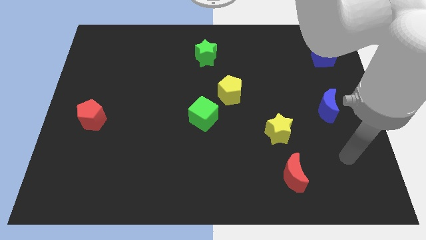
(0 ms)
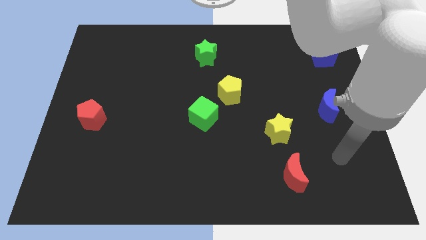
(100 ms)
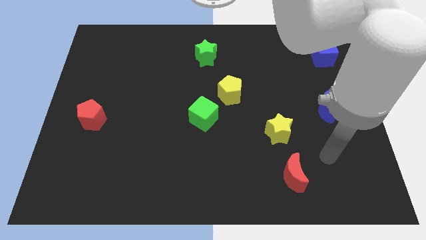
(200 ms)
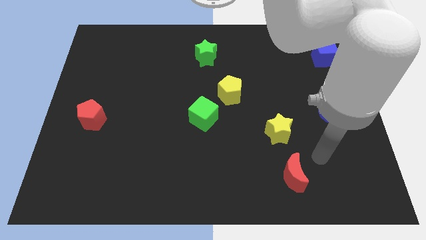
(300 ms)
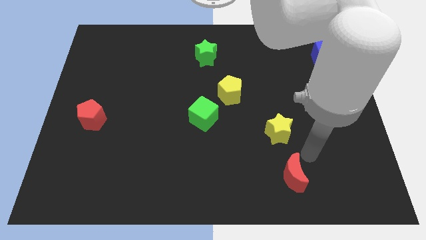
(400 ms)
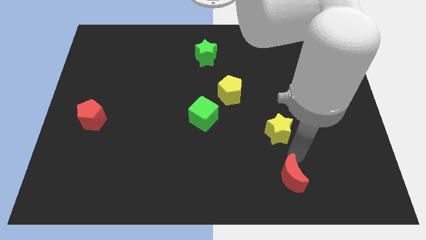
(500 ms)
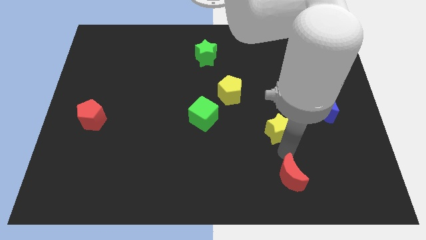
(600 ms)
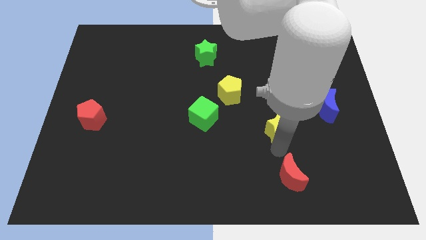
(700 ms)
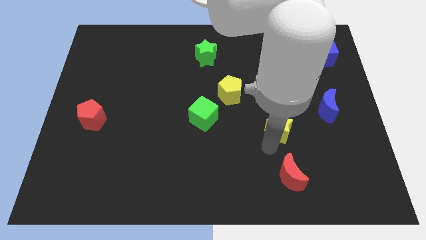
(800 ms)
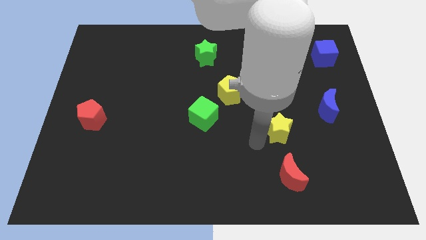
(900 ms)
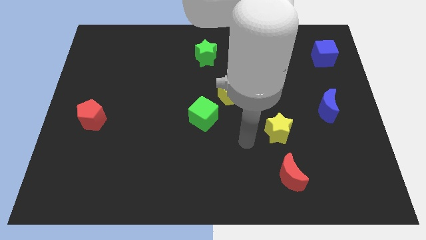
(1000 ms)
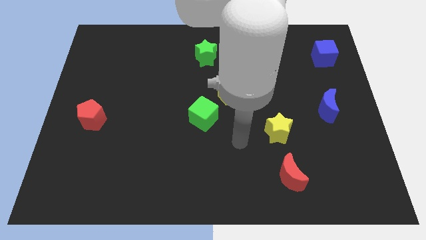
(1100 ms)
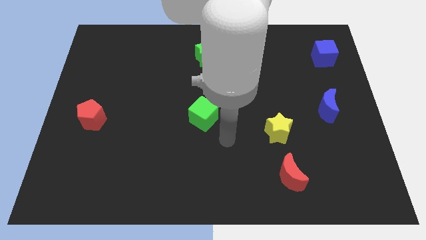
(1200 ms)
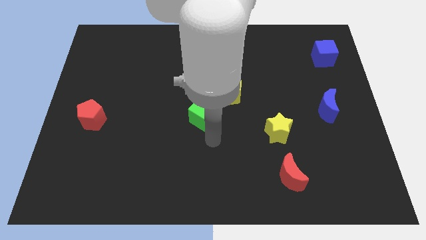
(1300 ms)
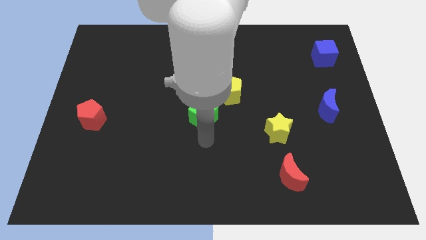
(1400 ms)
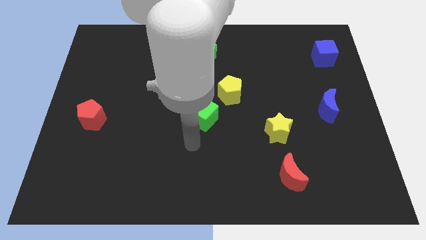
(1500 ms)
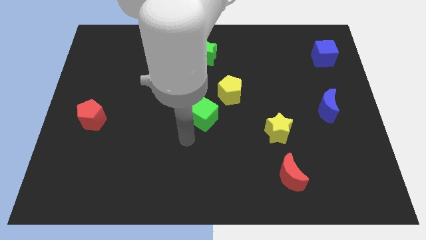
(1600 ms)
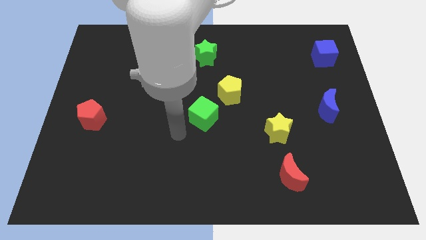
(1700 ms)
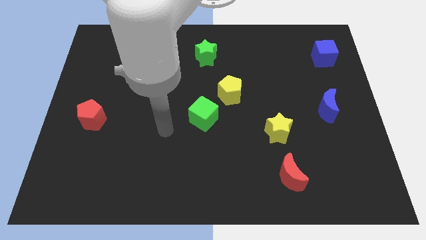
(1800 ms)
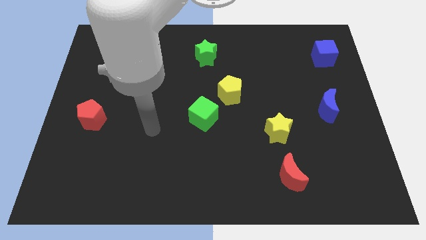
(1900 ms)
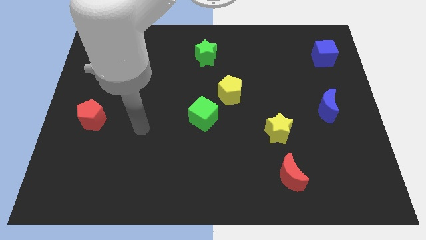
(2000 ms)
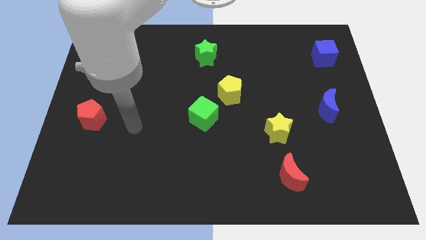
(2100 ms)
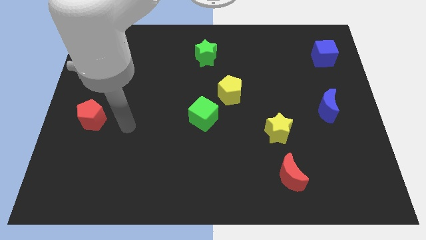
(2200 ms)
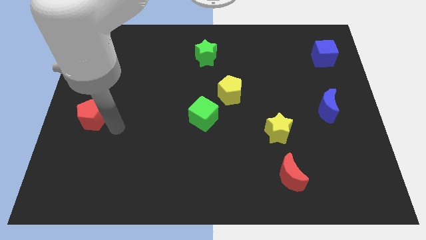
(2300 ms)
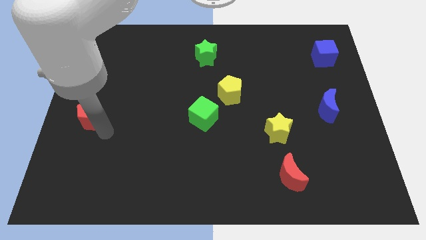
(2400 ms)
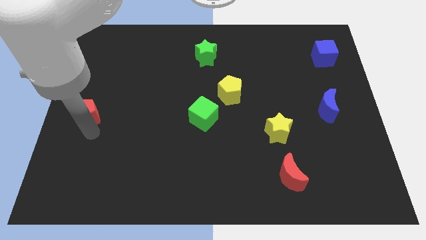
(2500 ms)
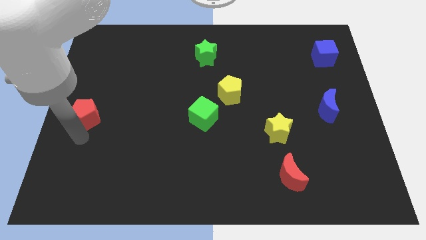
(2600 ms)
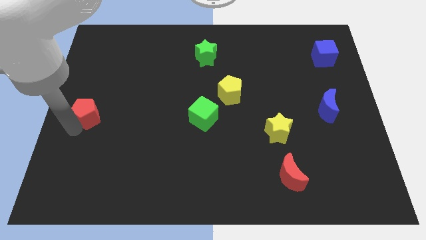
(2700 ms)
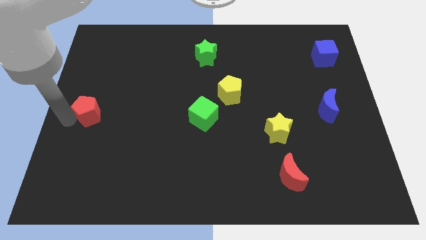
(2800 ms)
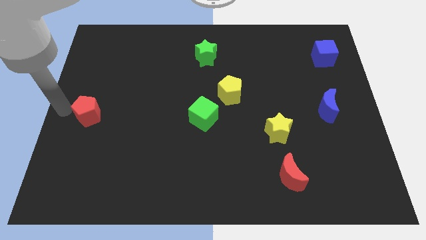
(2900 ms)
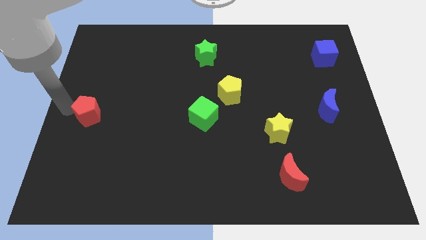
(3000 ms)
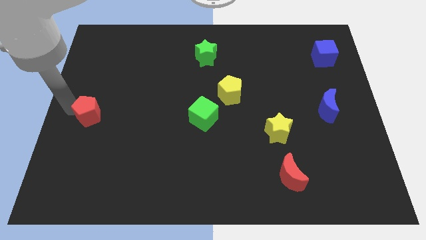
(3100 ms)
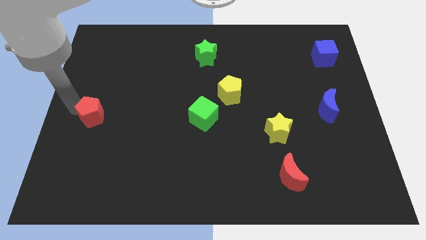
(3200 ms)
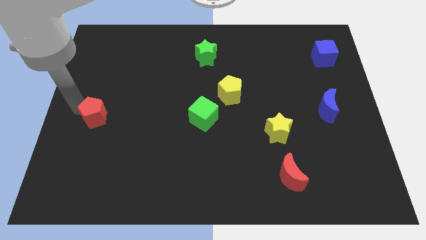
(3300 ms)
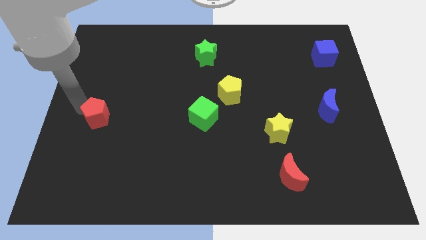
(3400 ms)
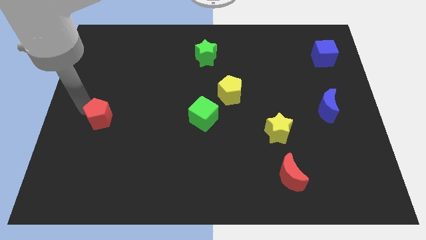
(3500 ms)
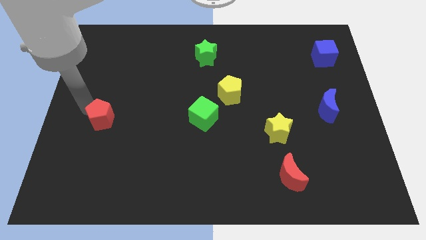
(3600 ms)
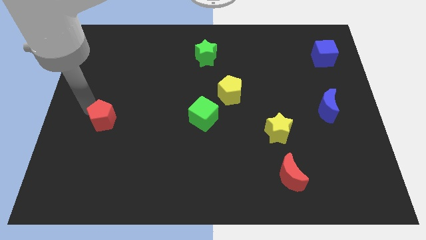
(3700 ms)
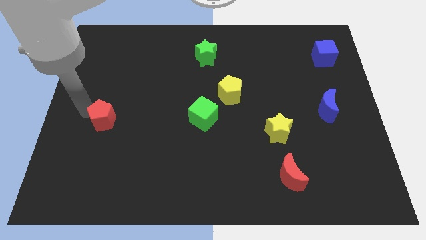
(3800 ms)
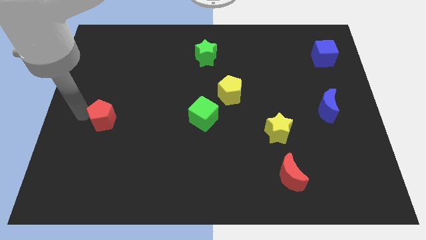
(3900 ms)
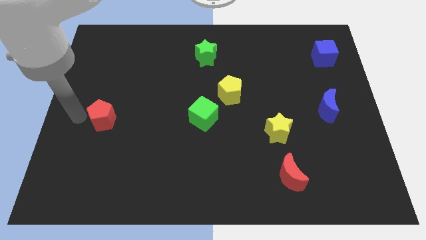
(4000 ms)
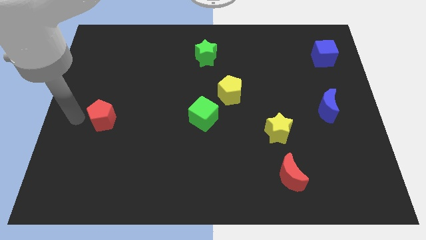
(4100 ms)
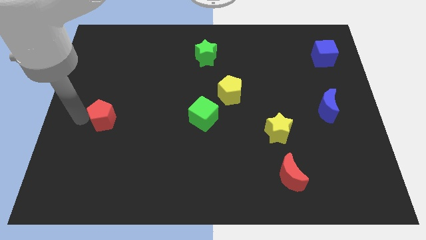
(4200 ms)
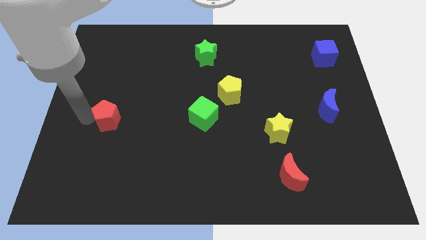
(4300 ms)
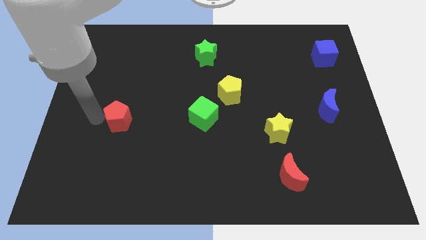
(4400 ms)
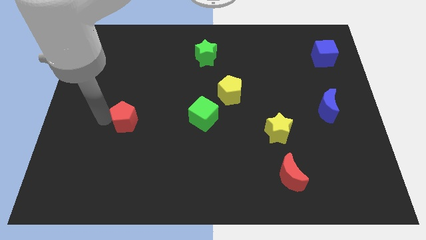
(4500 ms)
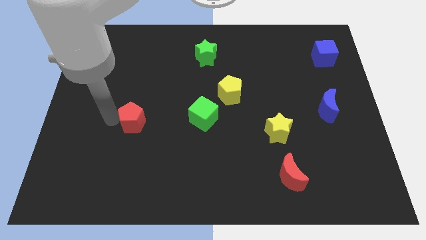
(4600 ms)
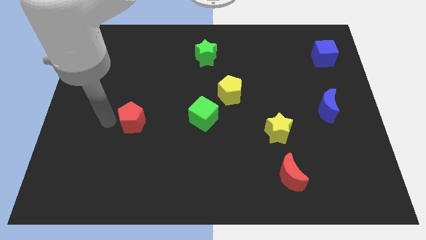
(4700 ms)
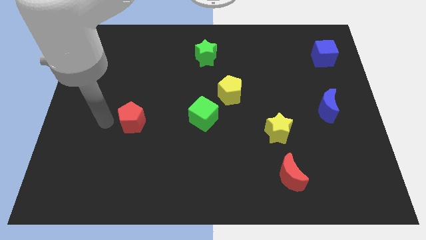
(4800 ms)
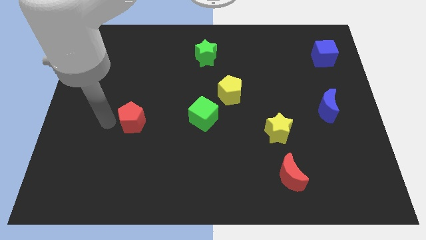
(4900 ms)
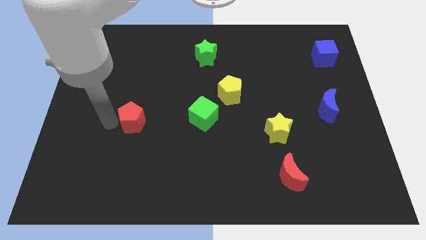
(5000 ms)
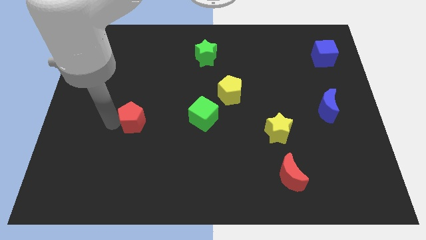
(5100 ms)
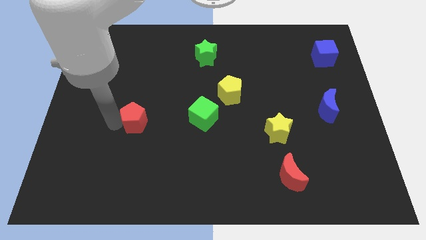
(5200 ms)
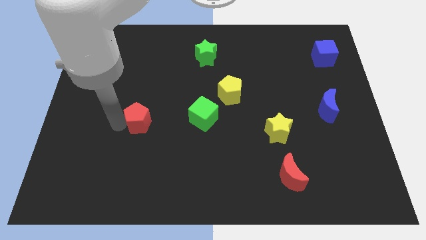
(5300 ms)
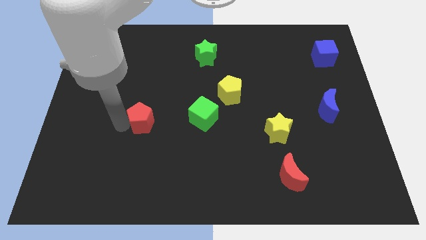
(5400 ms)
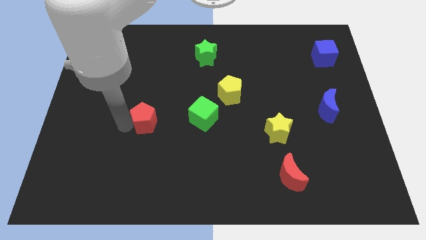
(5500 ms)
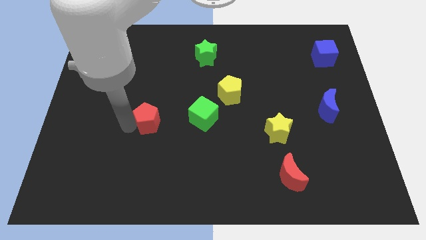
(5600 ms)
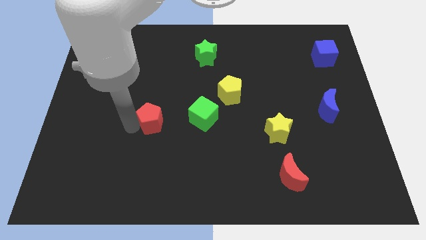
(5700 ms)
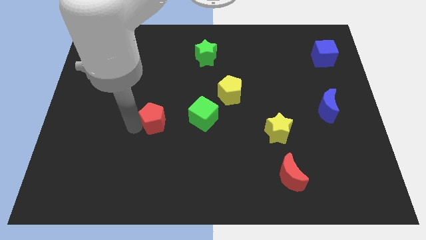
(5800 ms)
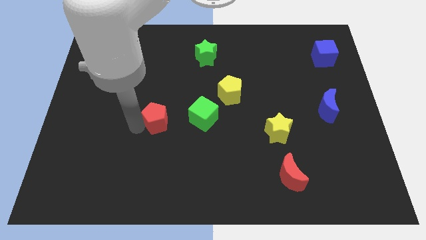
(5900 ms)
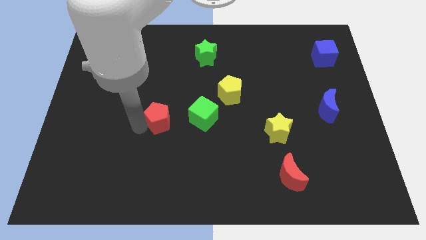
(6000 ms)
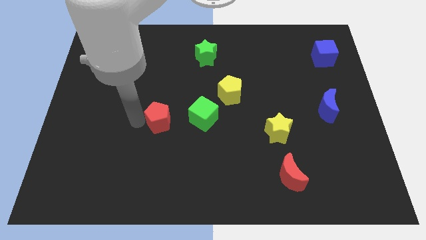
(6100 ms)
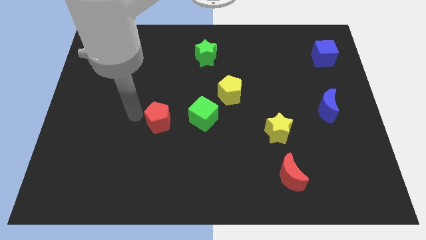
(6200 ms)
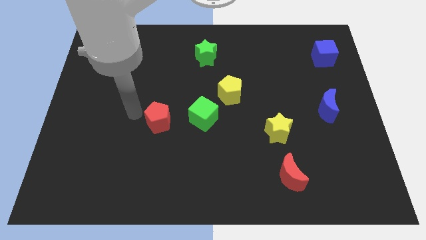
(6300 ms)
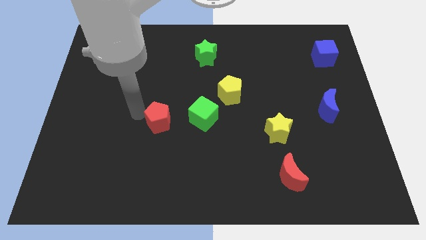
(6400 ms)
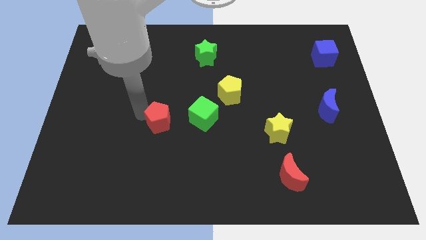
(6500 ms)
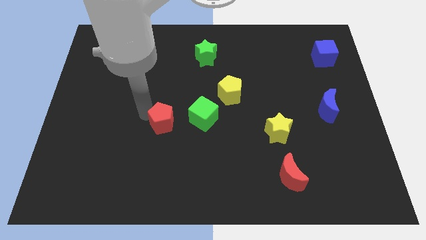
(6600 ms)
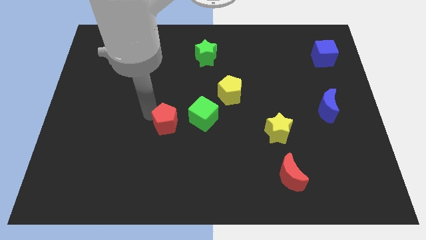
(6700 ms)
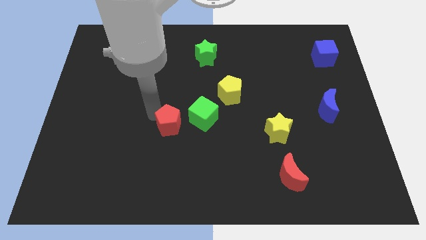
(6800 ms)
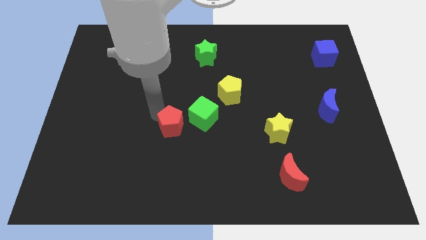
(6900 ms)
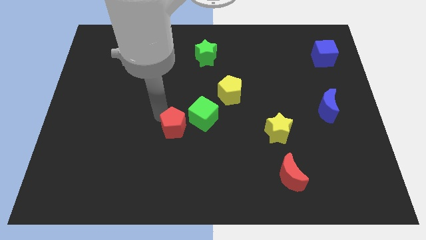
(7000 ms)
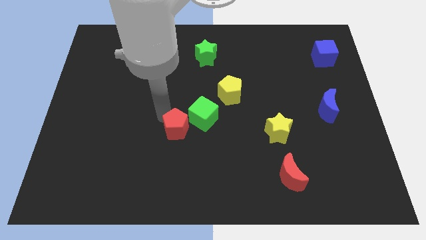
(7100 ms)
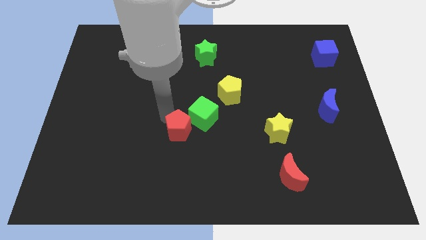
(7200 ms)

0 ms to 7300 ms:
move the red pentagon to the right

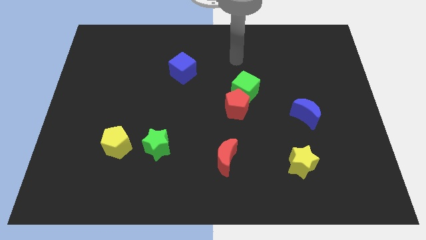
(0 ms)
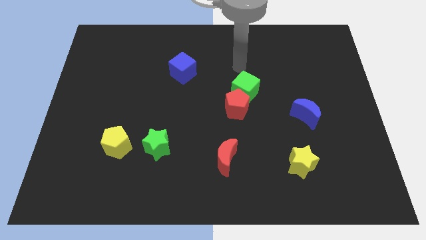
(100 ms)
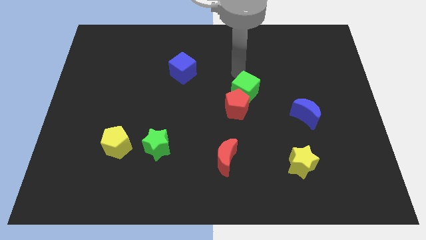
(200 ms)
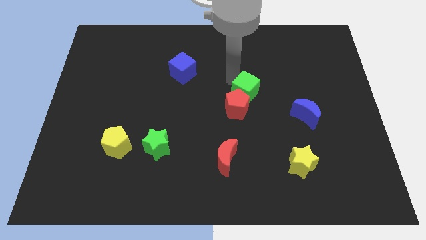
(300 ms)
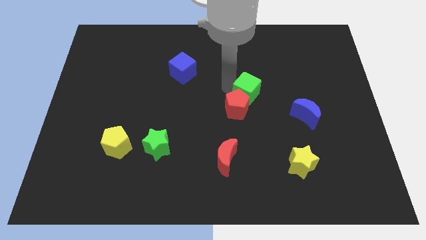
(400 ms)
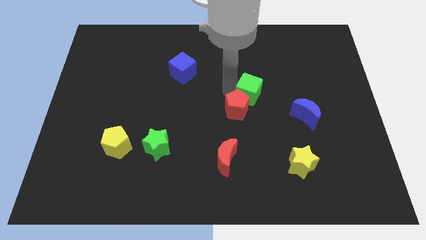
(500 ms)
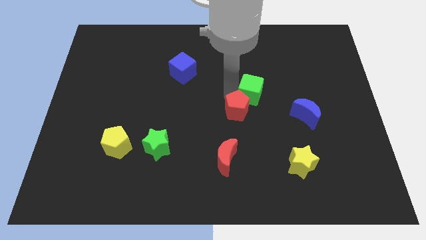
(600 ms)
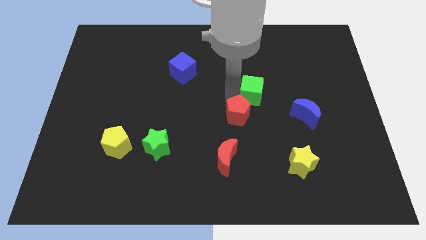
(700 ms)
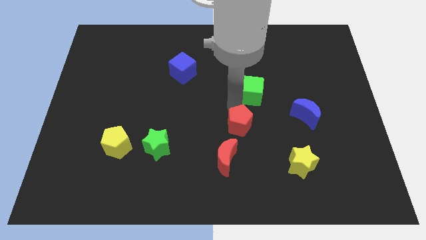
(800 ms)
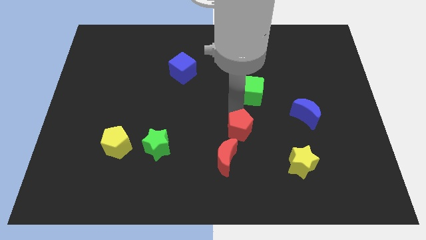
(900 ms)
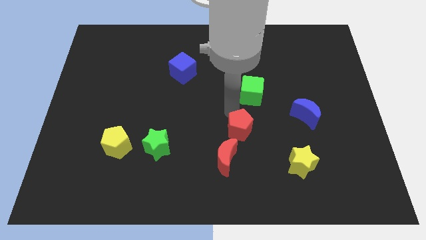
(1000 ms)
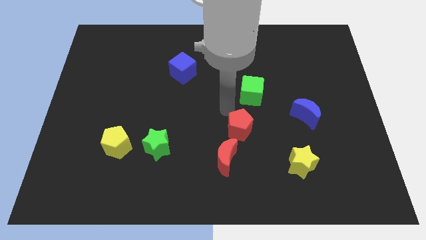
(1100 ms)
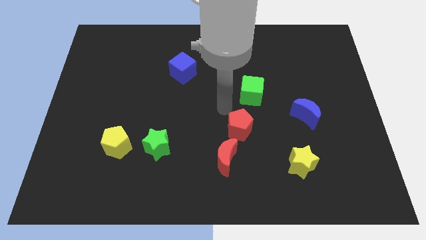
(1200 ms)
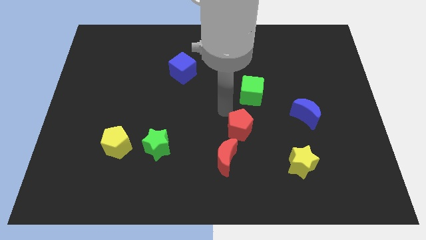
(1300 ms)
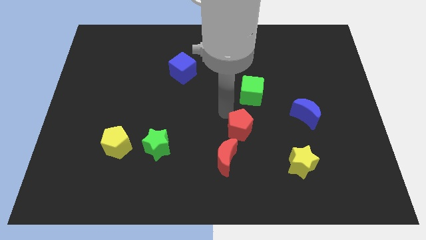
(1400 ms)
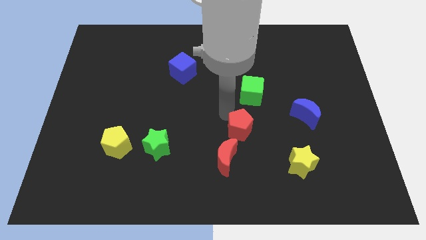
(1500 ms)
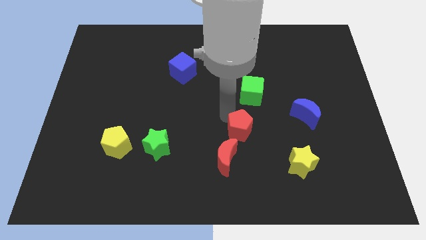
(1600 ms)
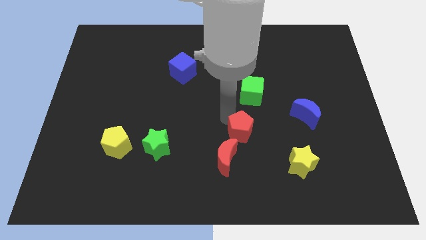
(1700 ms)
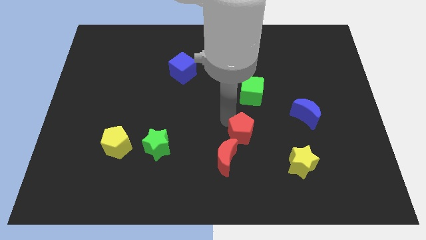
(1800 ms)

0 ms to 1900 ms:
slide the red pentagon a little downwards
